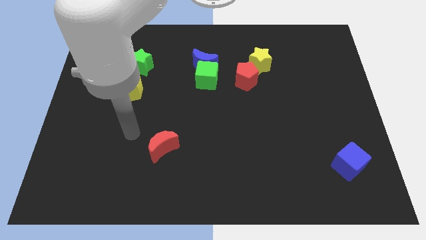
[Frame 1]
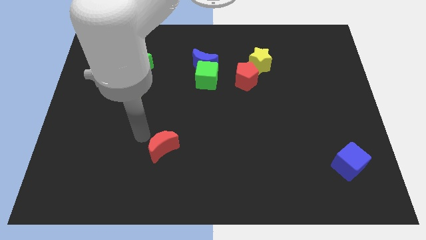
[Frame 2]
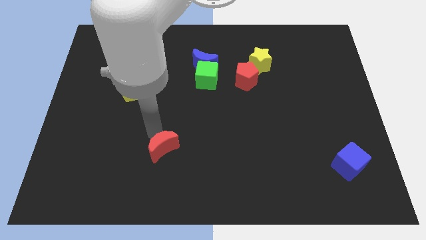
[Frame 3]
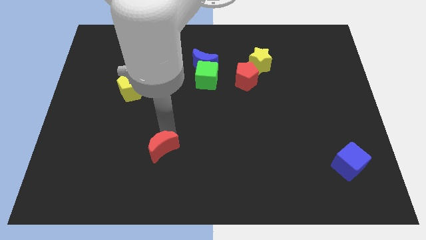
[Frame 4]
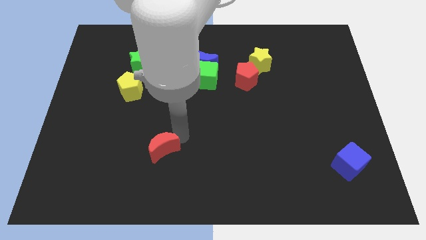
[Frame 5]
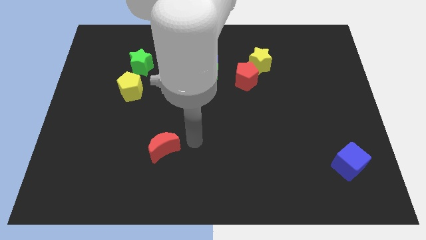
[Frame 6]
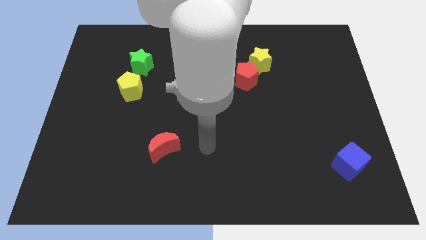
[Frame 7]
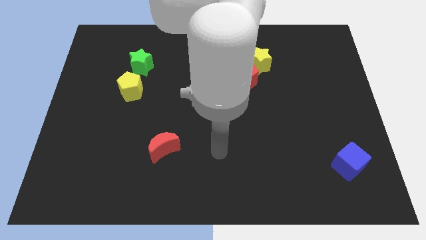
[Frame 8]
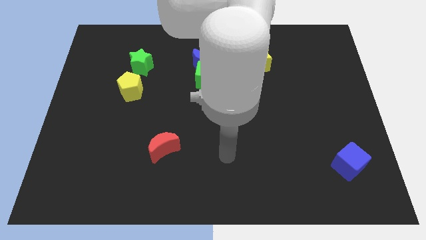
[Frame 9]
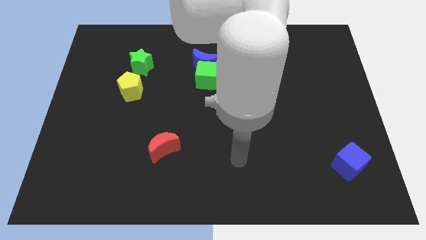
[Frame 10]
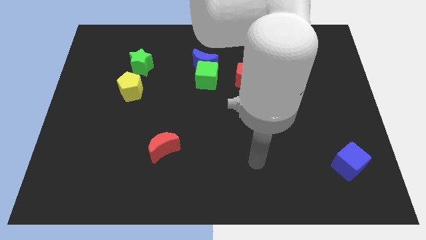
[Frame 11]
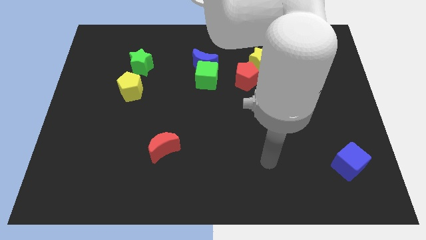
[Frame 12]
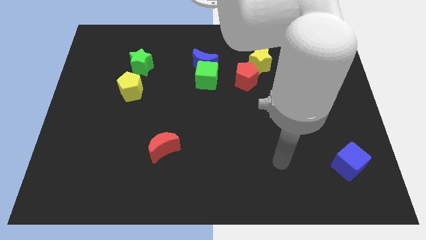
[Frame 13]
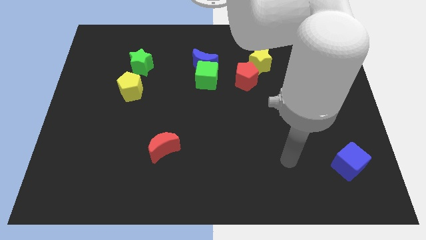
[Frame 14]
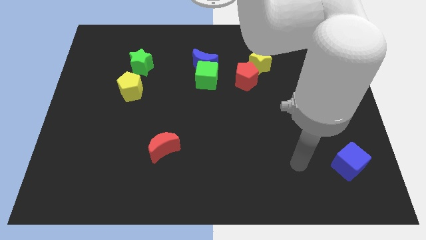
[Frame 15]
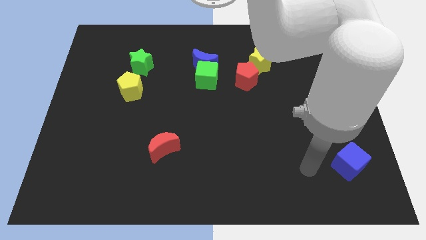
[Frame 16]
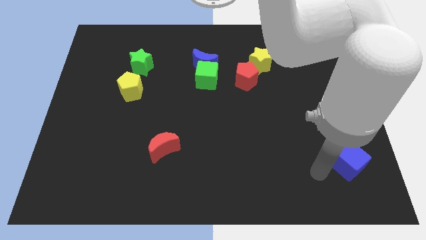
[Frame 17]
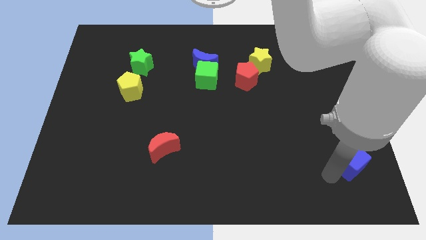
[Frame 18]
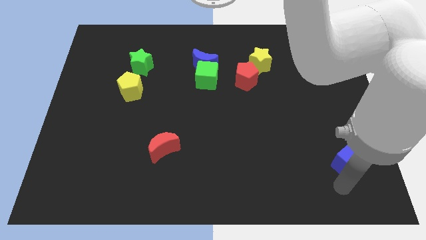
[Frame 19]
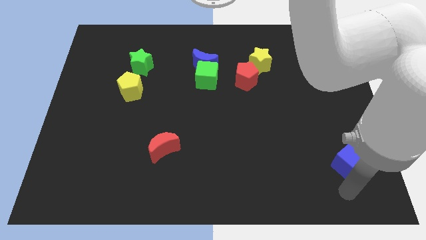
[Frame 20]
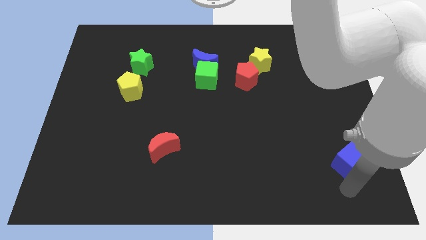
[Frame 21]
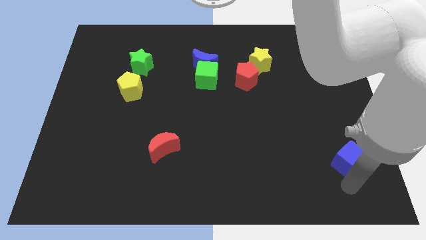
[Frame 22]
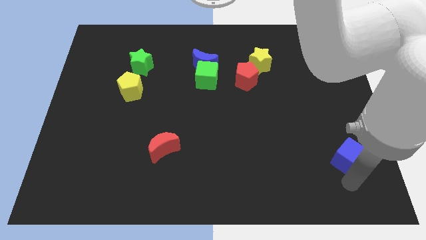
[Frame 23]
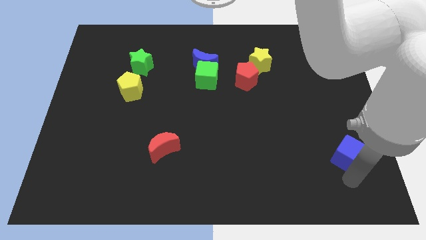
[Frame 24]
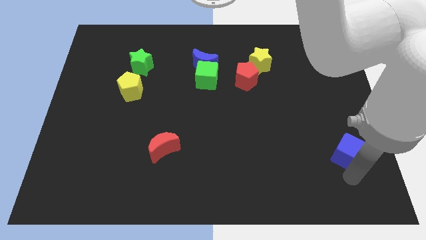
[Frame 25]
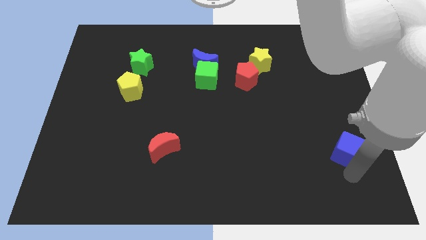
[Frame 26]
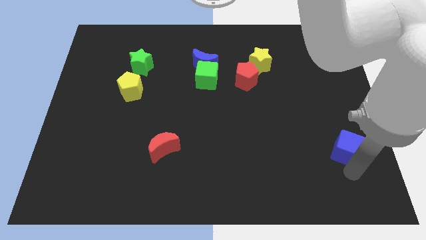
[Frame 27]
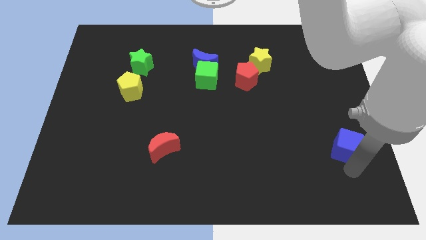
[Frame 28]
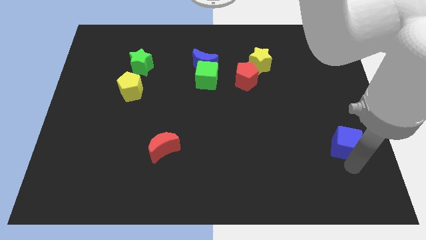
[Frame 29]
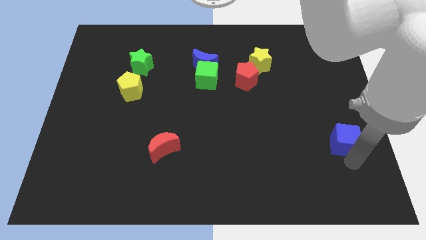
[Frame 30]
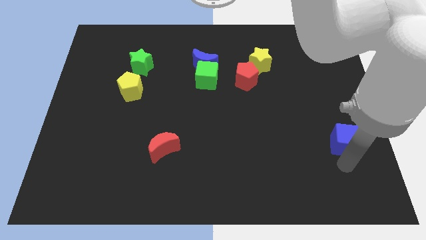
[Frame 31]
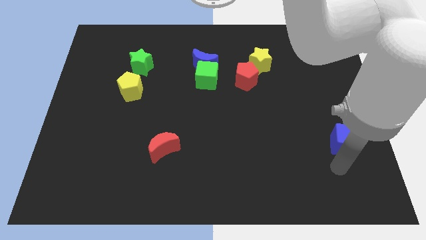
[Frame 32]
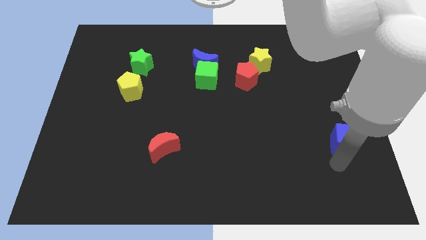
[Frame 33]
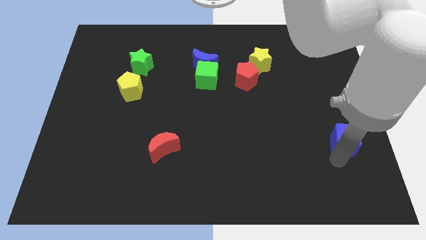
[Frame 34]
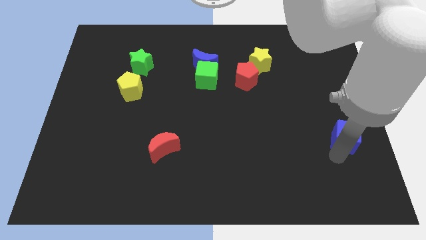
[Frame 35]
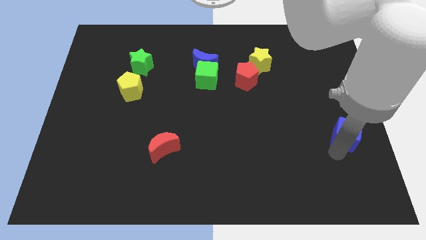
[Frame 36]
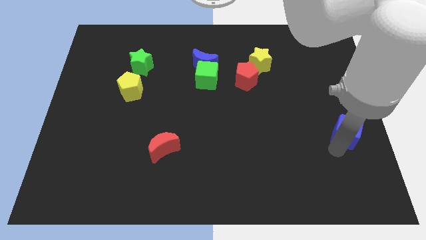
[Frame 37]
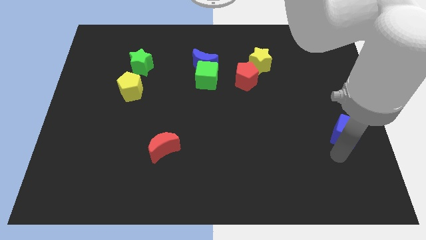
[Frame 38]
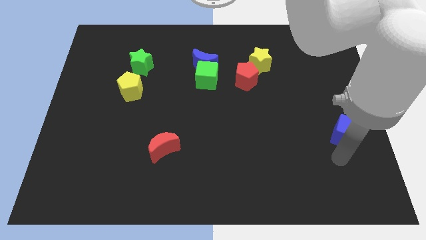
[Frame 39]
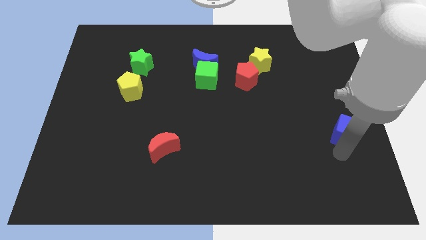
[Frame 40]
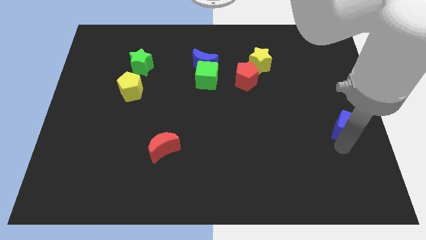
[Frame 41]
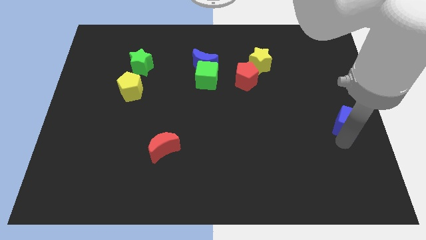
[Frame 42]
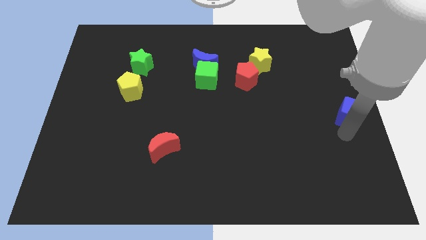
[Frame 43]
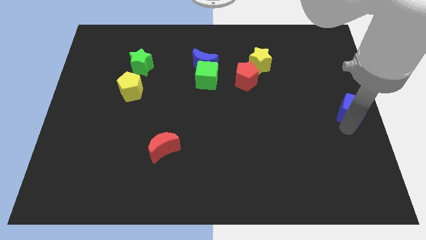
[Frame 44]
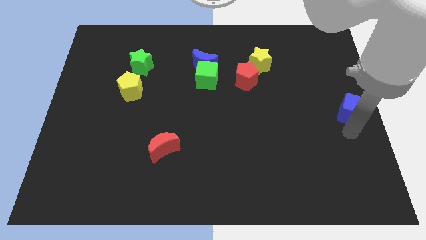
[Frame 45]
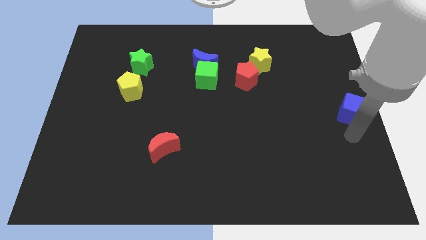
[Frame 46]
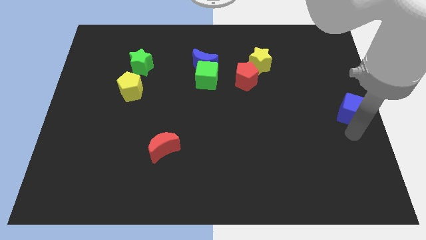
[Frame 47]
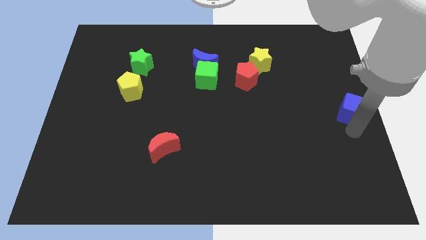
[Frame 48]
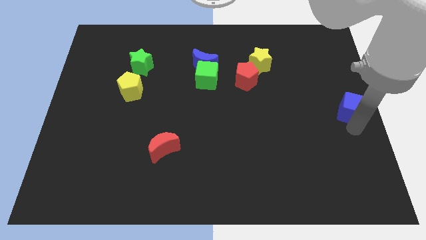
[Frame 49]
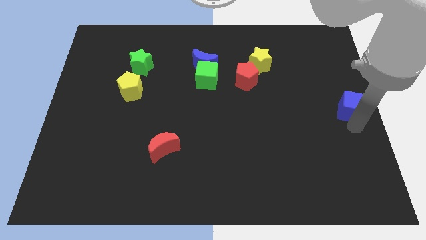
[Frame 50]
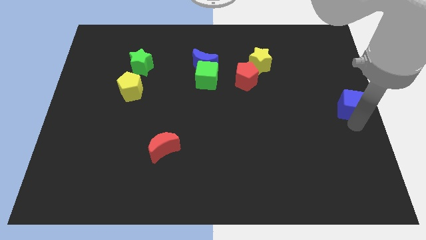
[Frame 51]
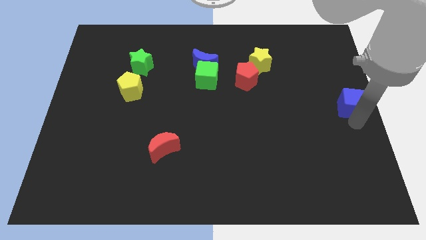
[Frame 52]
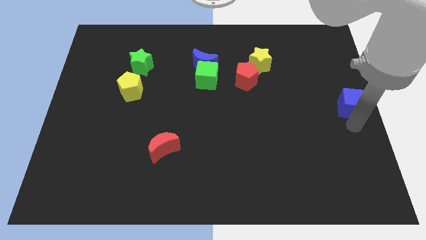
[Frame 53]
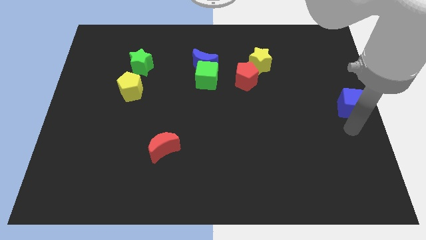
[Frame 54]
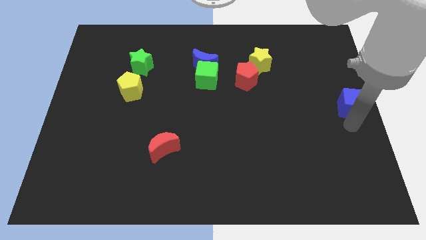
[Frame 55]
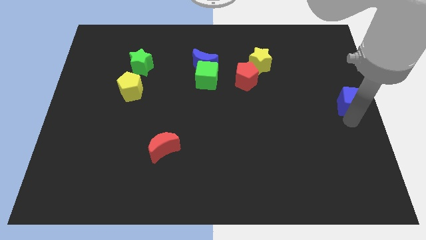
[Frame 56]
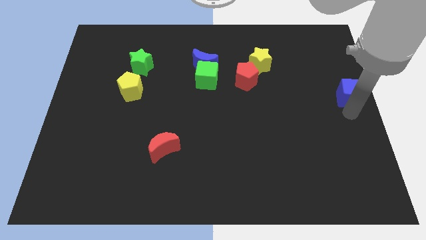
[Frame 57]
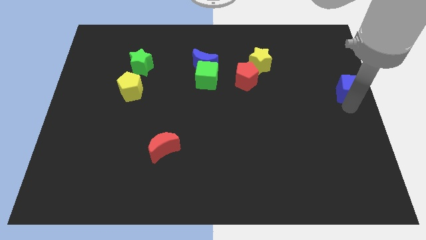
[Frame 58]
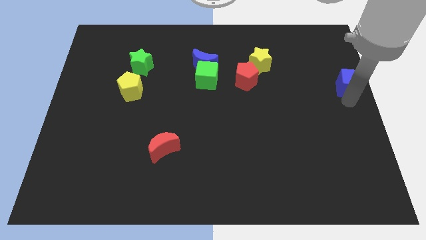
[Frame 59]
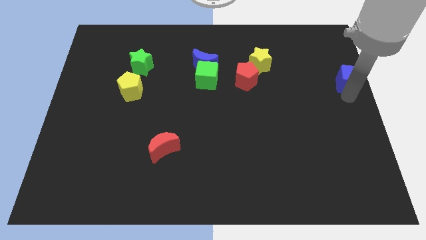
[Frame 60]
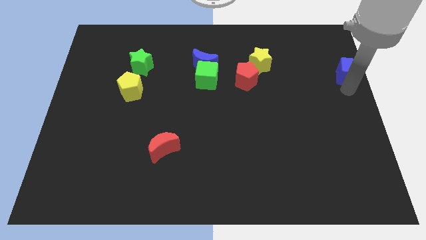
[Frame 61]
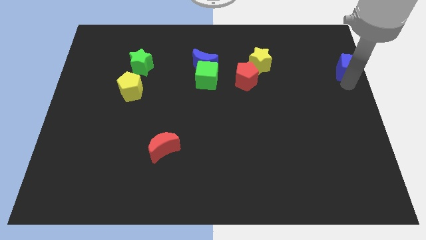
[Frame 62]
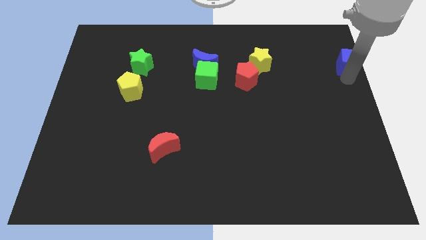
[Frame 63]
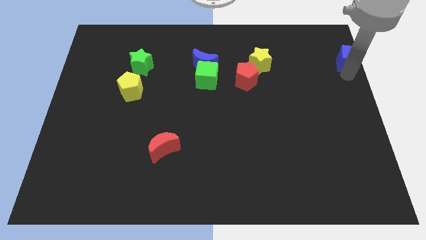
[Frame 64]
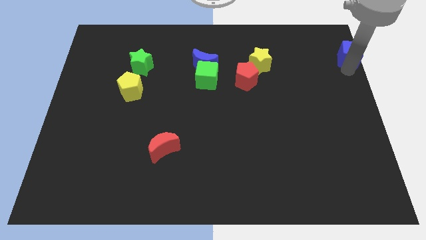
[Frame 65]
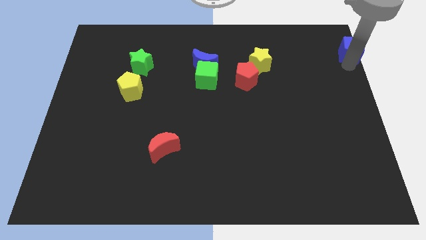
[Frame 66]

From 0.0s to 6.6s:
slide the blue cube to the top right
